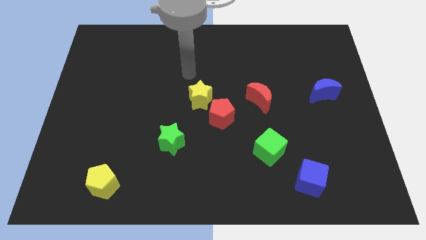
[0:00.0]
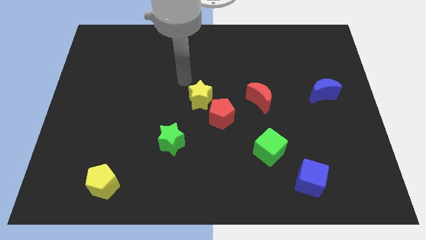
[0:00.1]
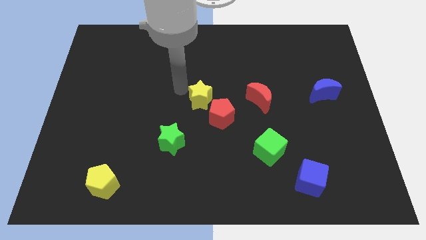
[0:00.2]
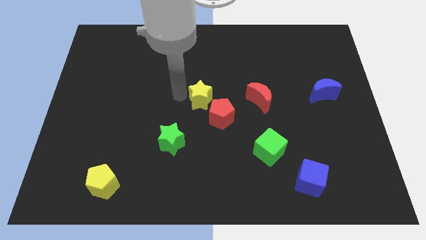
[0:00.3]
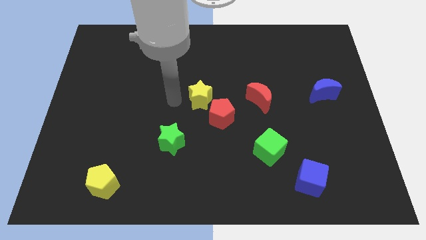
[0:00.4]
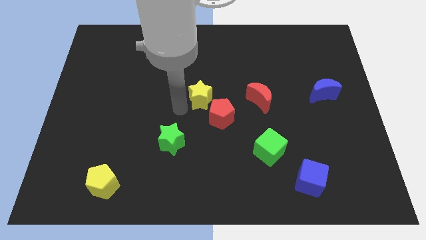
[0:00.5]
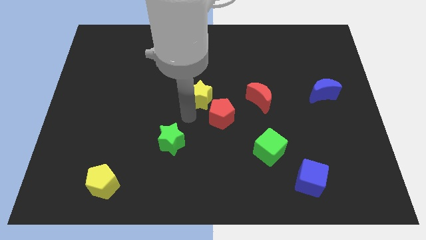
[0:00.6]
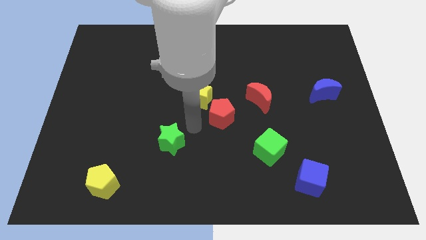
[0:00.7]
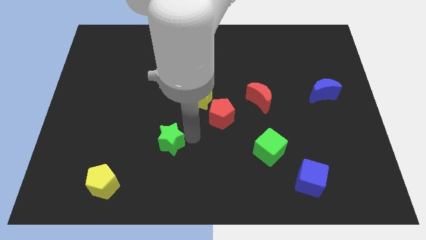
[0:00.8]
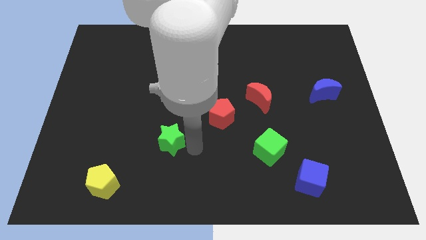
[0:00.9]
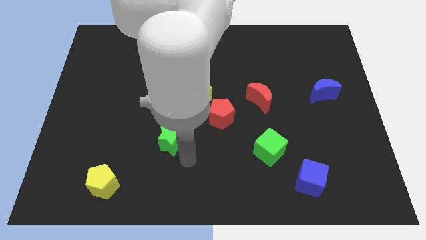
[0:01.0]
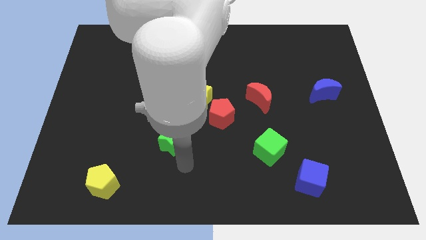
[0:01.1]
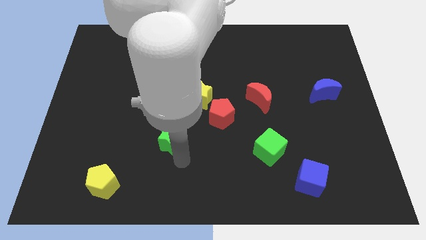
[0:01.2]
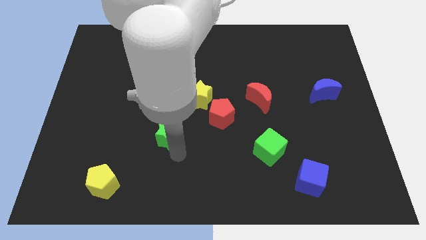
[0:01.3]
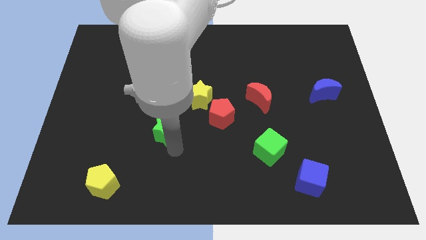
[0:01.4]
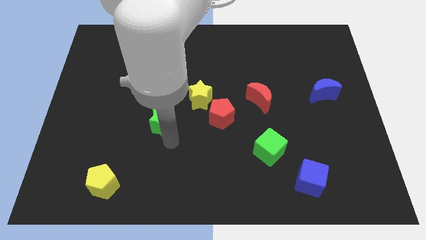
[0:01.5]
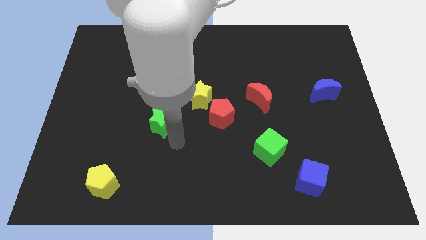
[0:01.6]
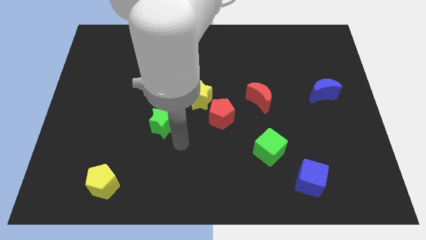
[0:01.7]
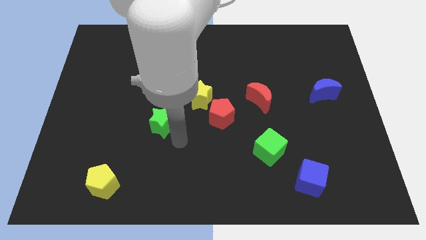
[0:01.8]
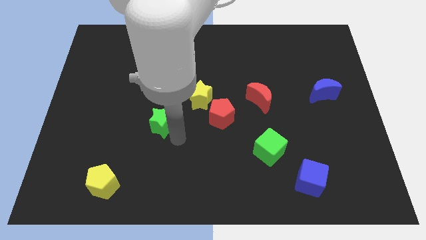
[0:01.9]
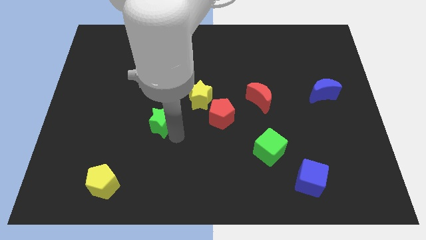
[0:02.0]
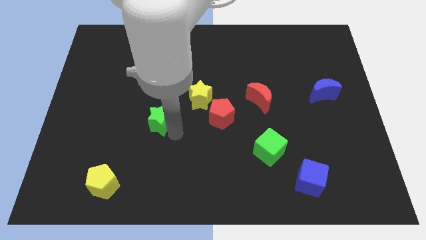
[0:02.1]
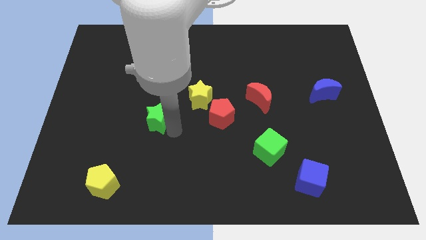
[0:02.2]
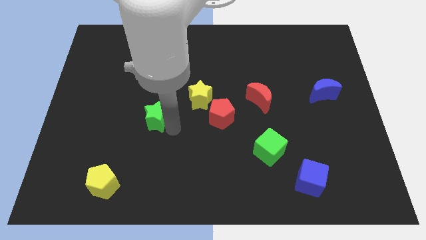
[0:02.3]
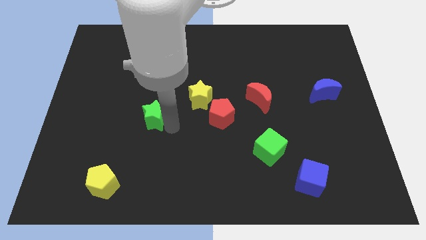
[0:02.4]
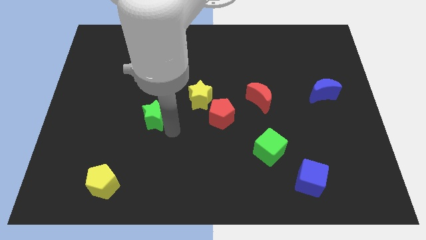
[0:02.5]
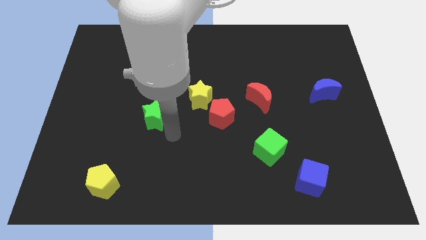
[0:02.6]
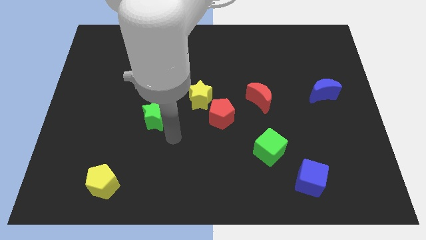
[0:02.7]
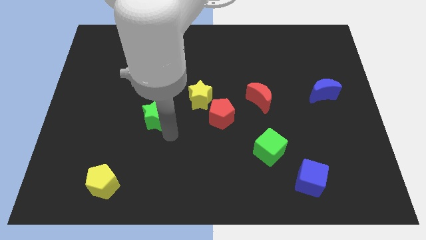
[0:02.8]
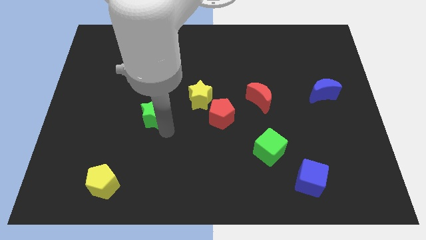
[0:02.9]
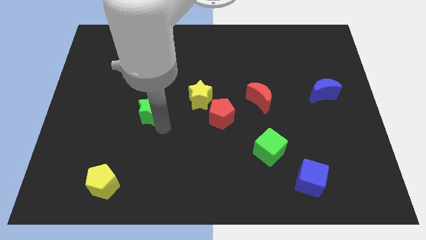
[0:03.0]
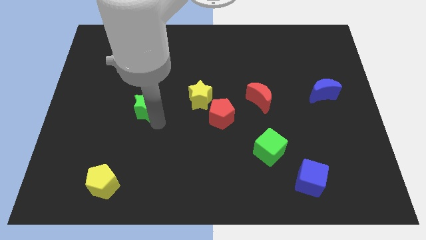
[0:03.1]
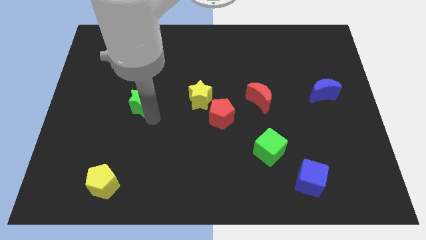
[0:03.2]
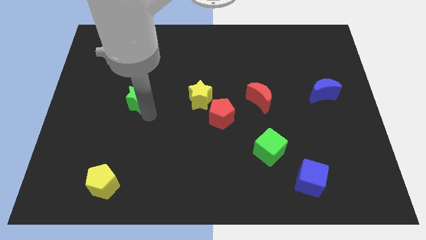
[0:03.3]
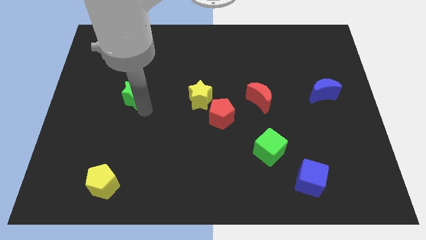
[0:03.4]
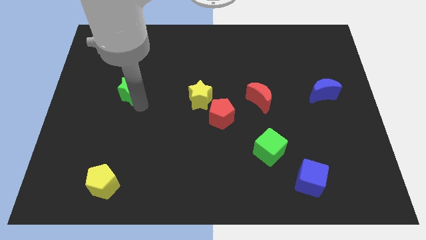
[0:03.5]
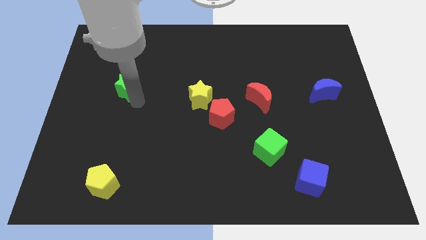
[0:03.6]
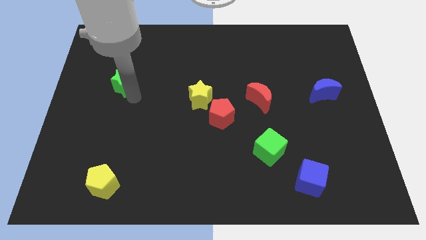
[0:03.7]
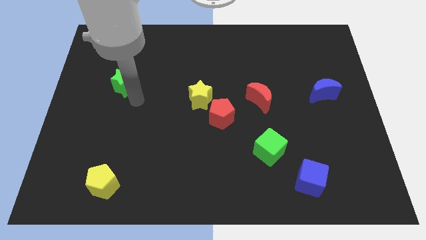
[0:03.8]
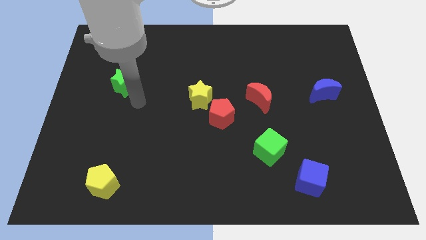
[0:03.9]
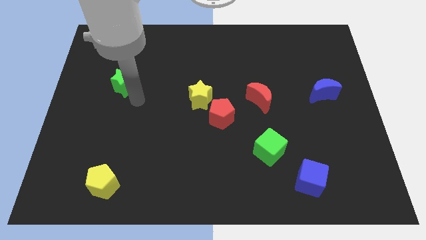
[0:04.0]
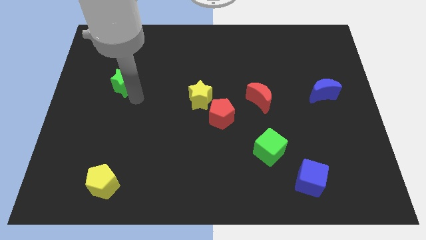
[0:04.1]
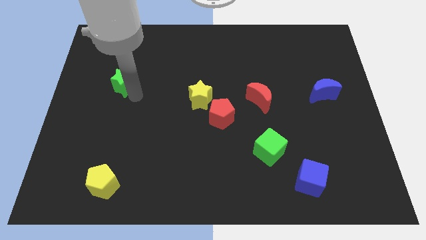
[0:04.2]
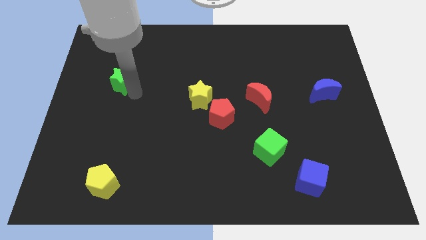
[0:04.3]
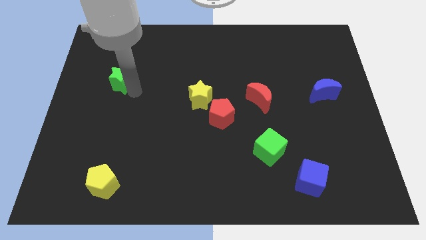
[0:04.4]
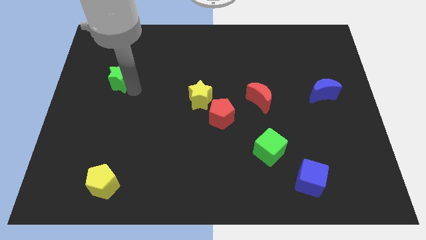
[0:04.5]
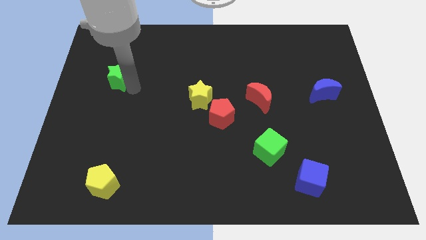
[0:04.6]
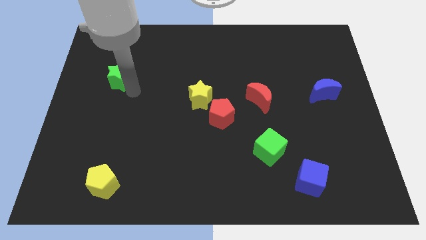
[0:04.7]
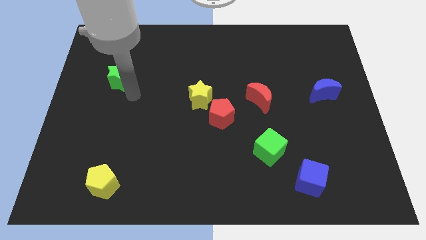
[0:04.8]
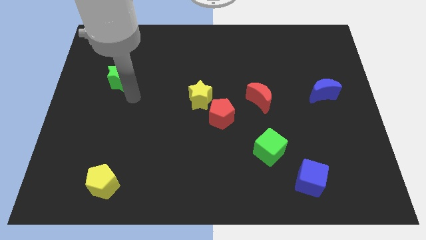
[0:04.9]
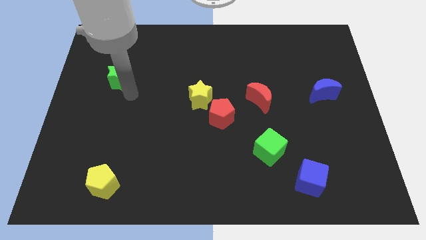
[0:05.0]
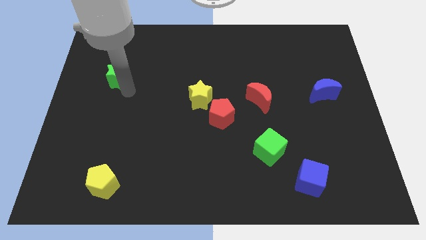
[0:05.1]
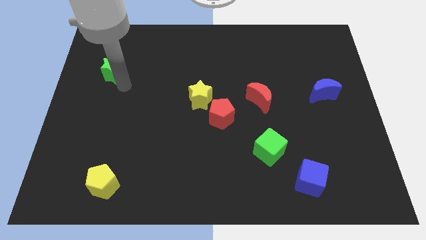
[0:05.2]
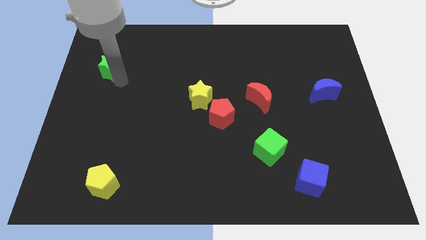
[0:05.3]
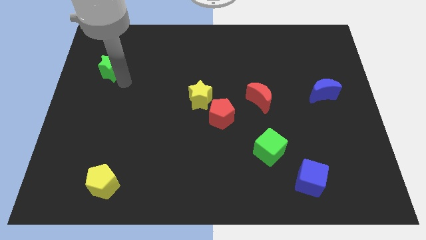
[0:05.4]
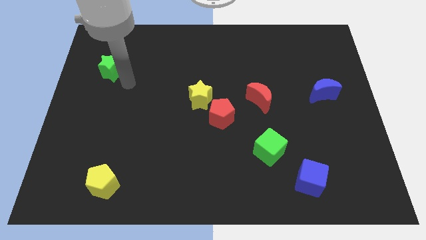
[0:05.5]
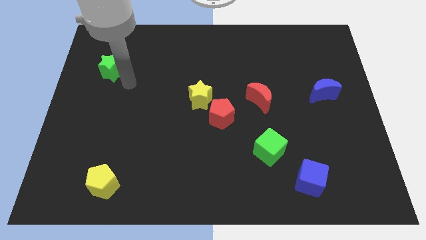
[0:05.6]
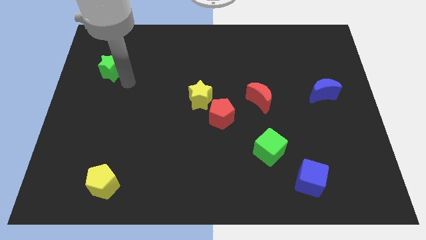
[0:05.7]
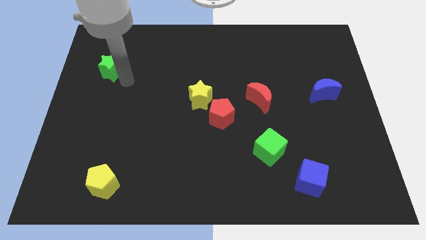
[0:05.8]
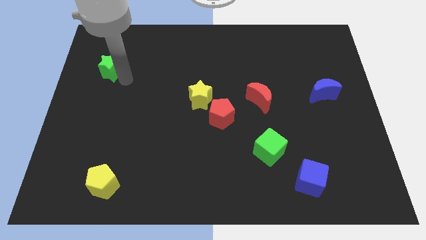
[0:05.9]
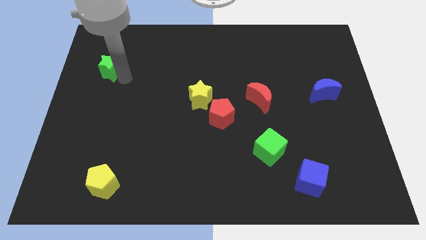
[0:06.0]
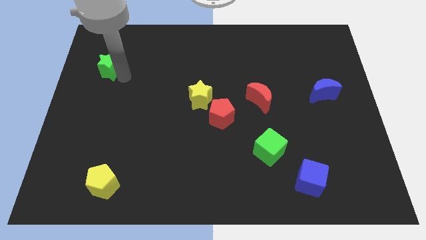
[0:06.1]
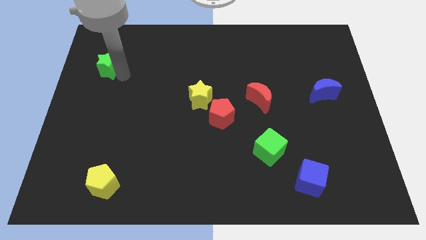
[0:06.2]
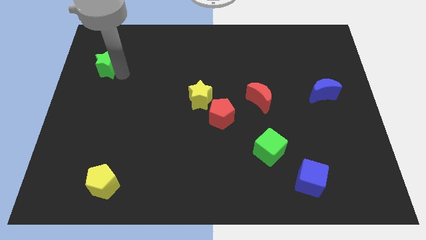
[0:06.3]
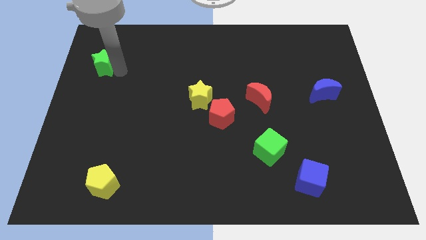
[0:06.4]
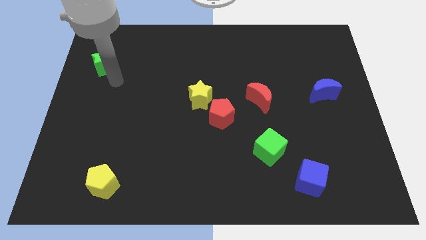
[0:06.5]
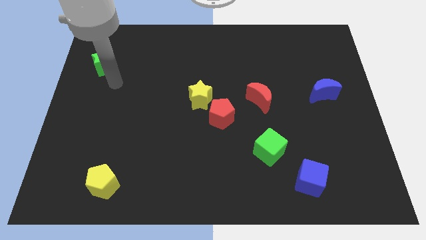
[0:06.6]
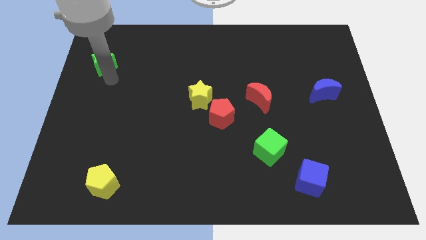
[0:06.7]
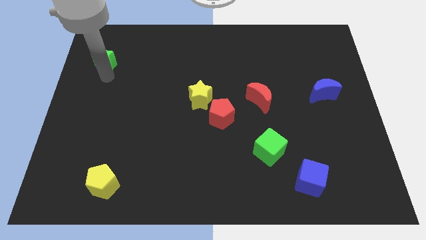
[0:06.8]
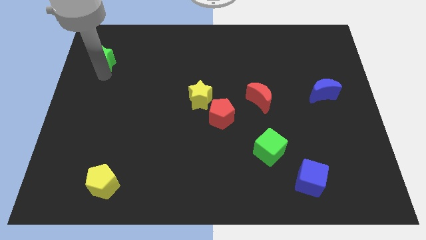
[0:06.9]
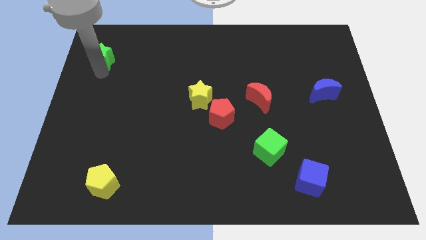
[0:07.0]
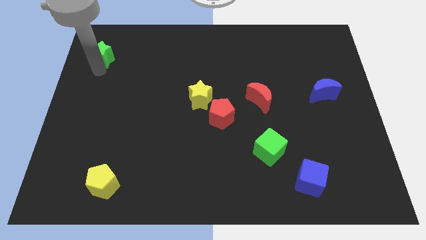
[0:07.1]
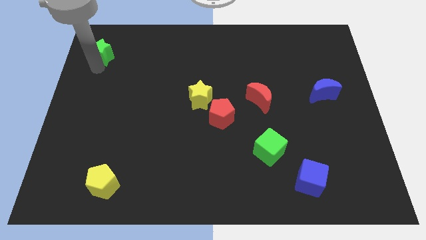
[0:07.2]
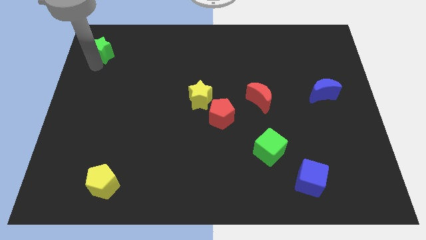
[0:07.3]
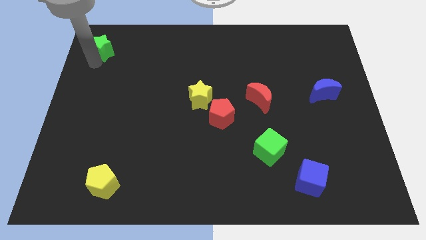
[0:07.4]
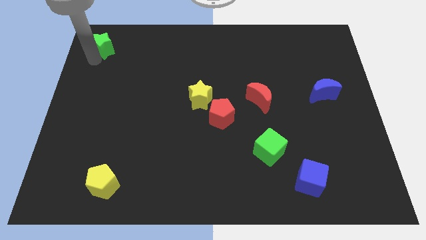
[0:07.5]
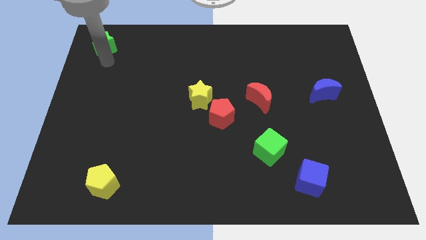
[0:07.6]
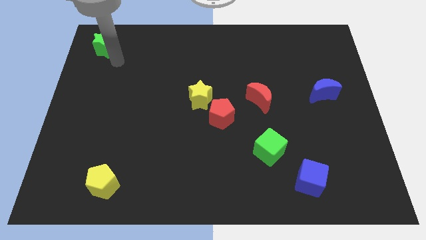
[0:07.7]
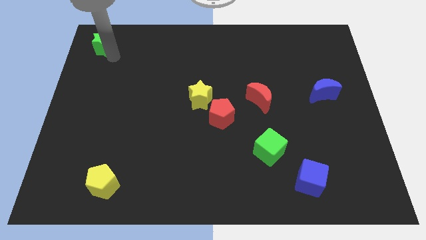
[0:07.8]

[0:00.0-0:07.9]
put the green star to the top left of the board
